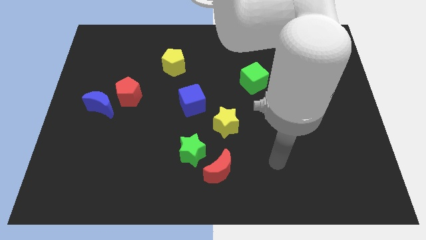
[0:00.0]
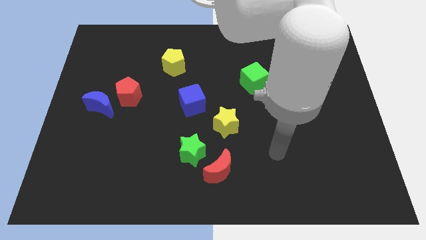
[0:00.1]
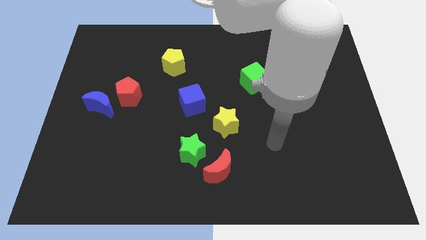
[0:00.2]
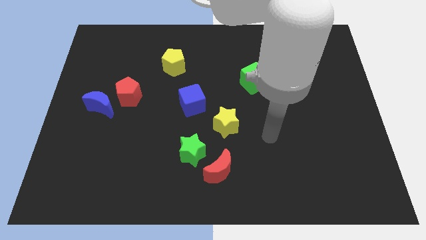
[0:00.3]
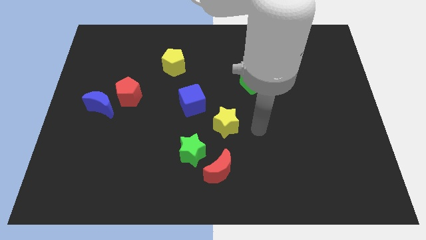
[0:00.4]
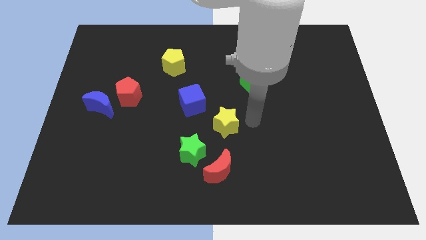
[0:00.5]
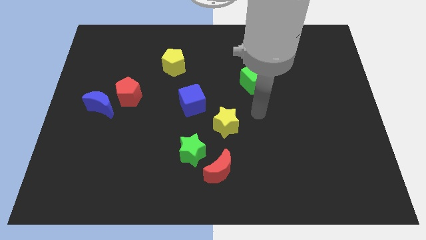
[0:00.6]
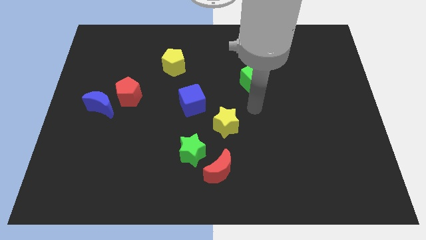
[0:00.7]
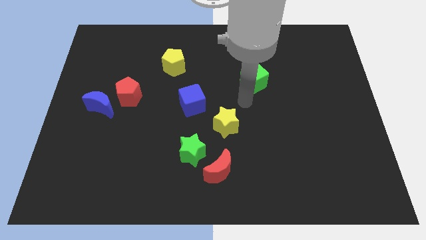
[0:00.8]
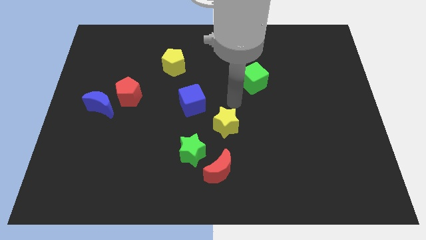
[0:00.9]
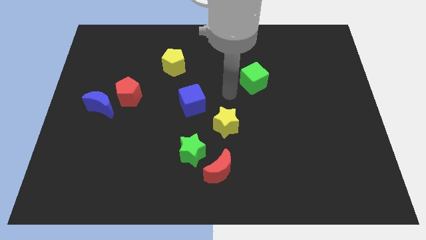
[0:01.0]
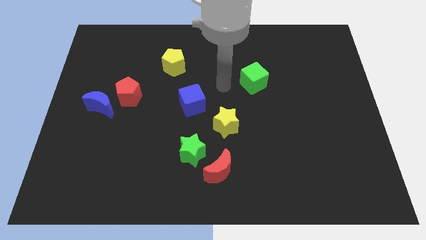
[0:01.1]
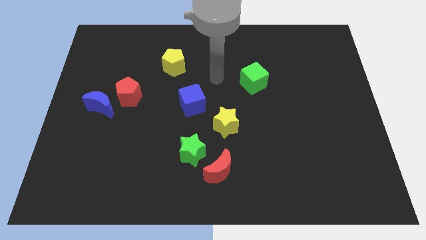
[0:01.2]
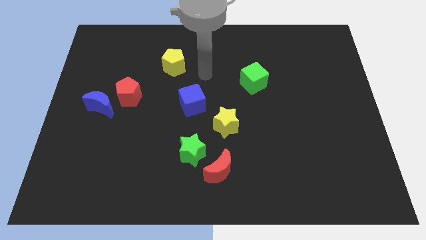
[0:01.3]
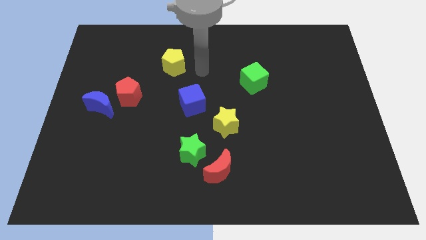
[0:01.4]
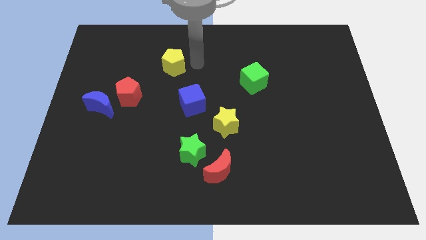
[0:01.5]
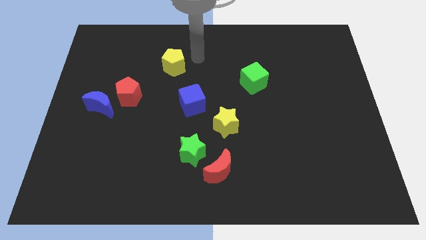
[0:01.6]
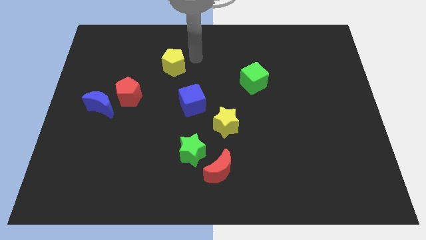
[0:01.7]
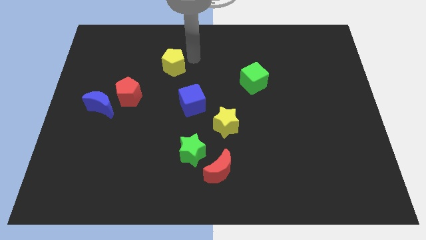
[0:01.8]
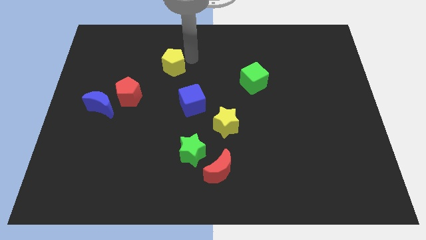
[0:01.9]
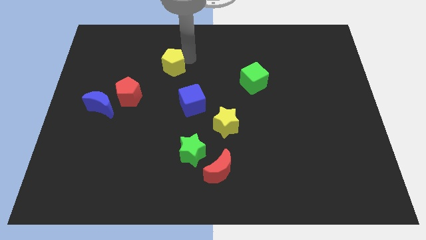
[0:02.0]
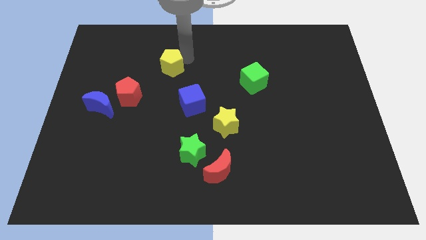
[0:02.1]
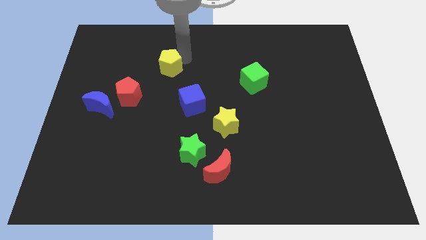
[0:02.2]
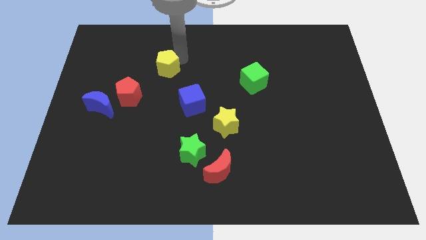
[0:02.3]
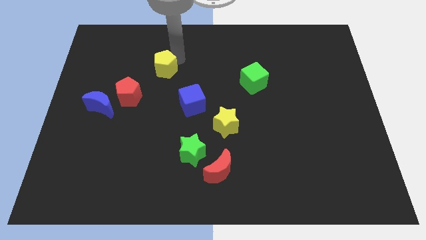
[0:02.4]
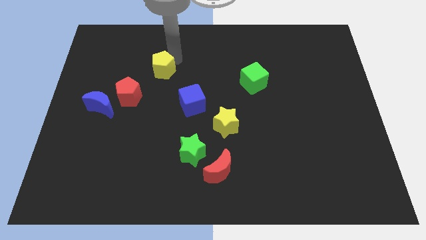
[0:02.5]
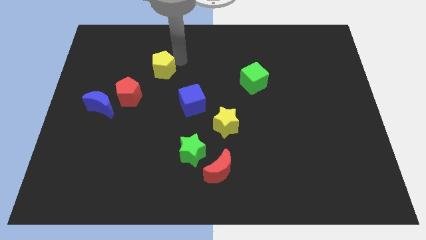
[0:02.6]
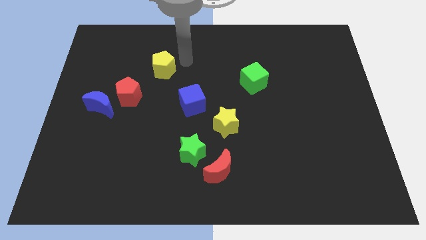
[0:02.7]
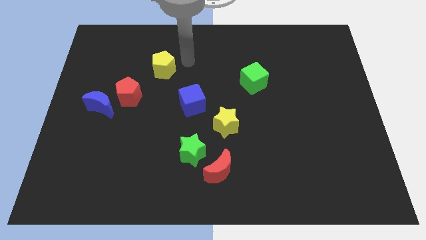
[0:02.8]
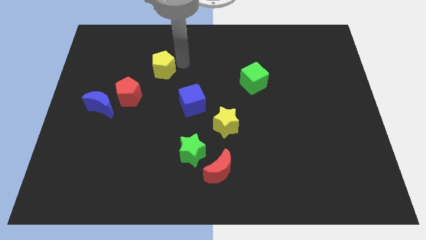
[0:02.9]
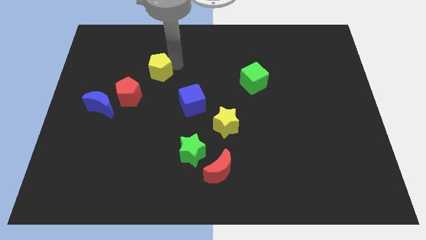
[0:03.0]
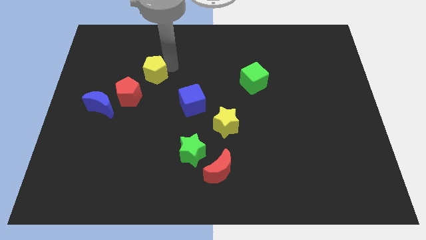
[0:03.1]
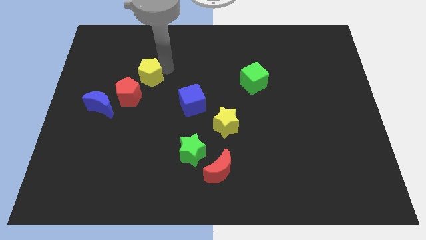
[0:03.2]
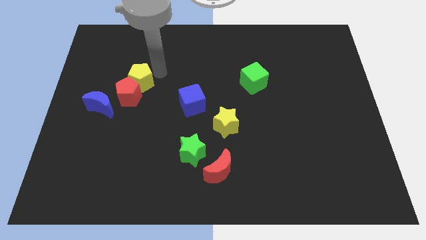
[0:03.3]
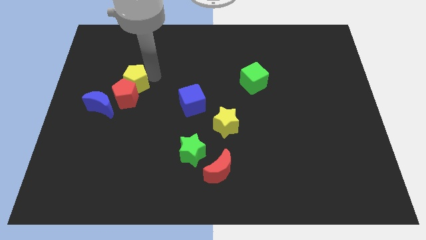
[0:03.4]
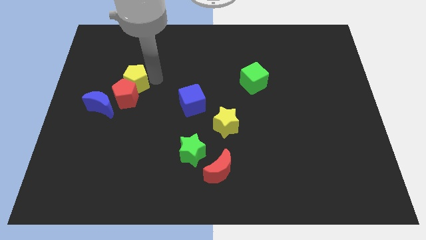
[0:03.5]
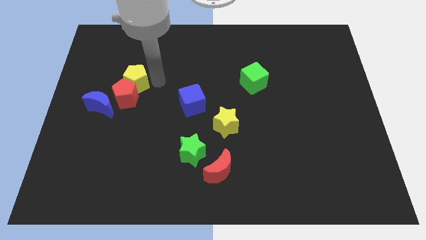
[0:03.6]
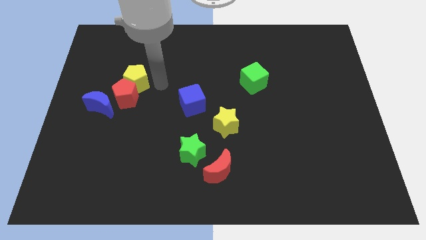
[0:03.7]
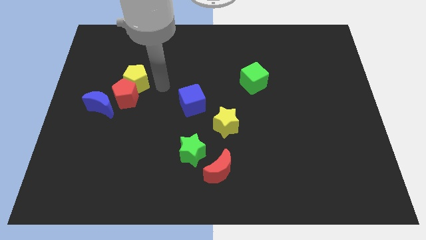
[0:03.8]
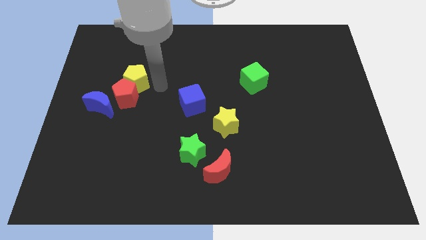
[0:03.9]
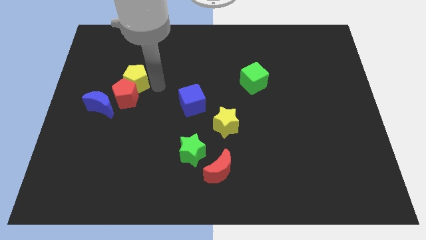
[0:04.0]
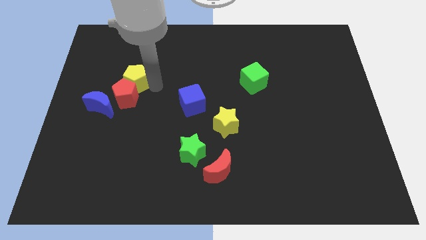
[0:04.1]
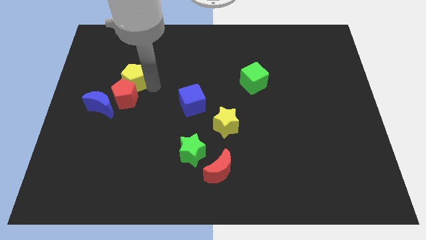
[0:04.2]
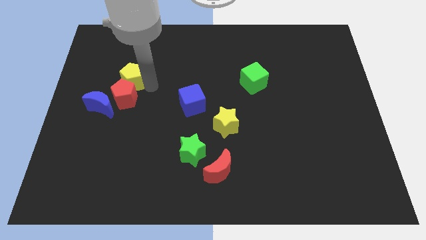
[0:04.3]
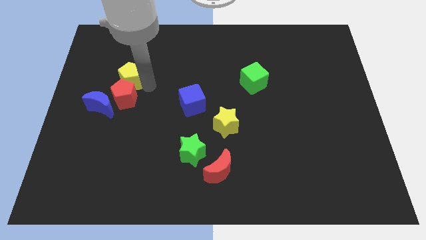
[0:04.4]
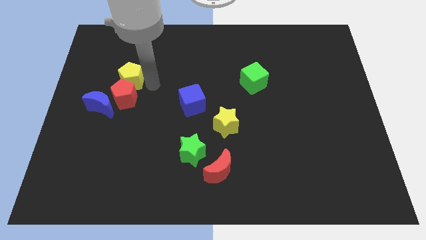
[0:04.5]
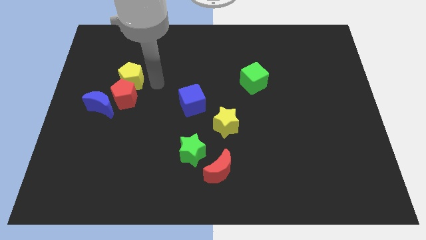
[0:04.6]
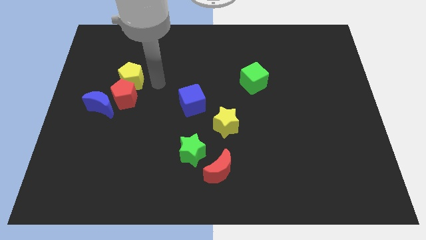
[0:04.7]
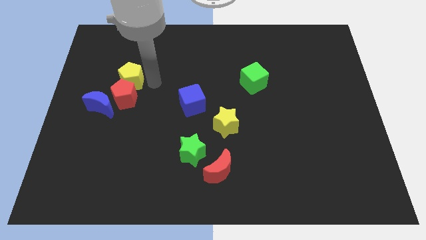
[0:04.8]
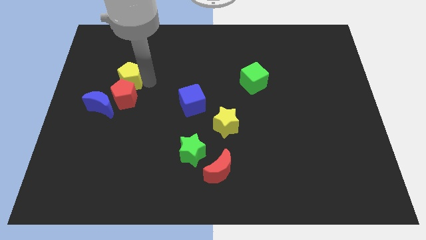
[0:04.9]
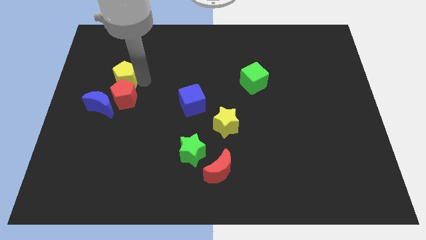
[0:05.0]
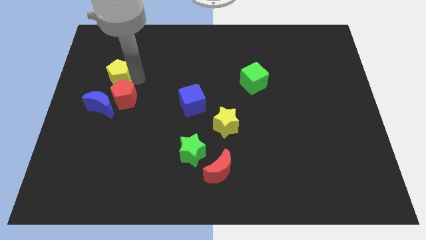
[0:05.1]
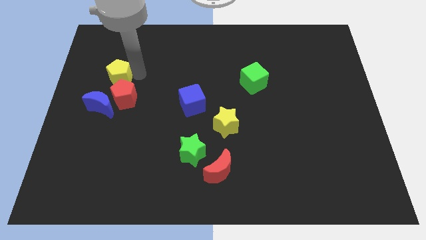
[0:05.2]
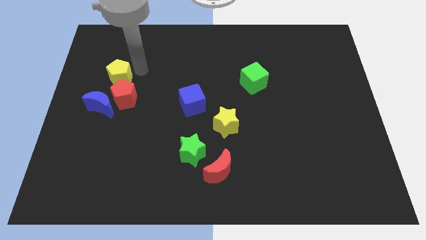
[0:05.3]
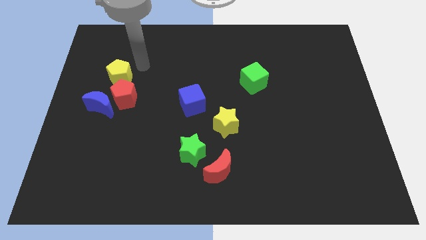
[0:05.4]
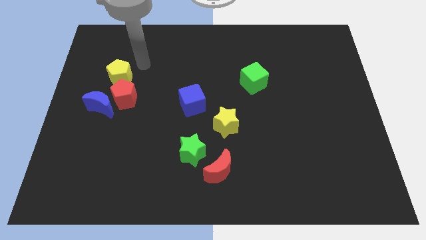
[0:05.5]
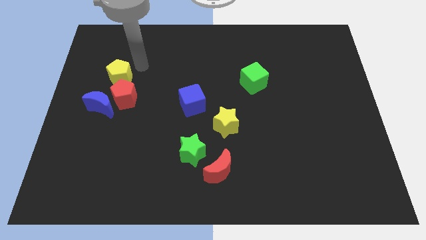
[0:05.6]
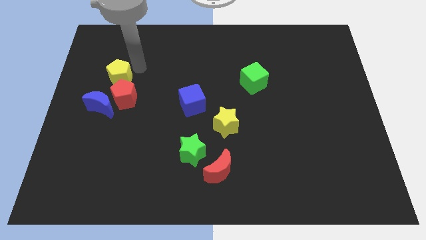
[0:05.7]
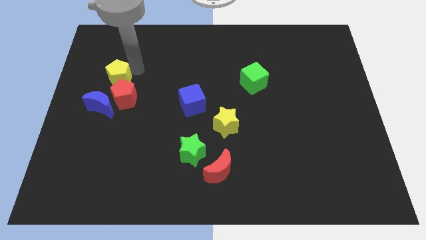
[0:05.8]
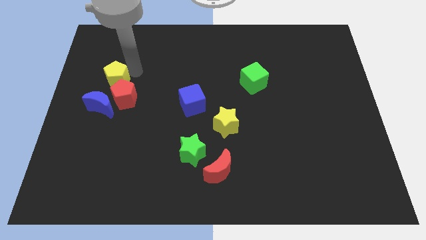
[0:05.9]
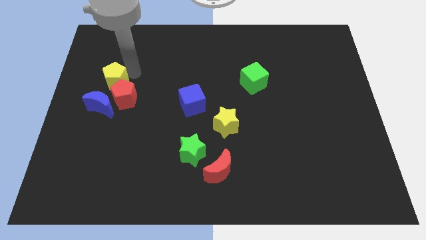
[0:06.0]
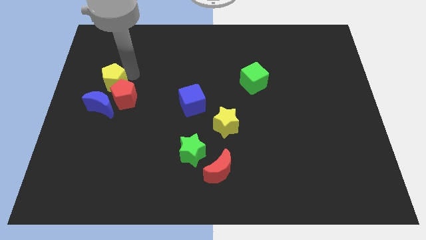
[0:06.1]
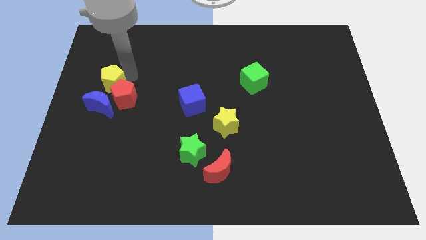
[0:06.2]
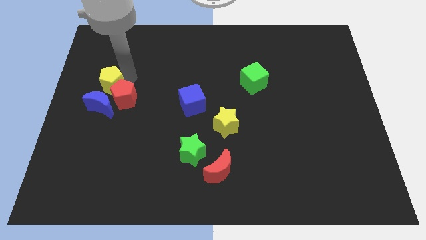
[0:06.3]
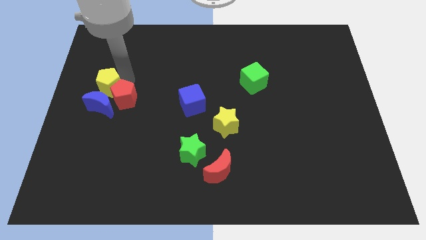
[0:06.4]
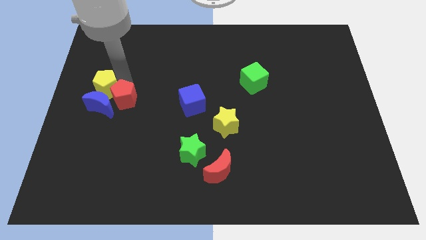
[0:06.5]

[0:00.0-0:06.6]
move the yellow pentagon to the center left
